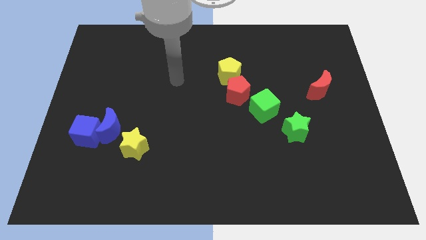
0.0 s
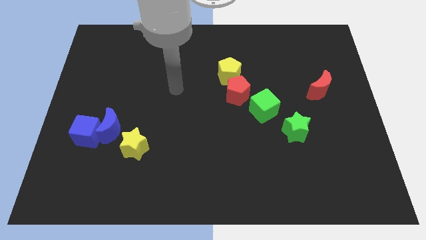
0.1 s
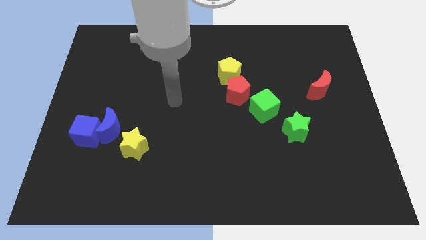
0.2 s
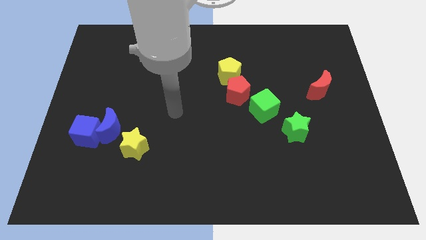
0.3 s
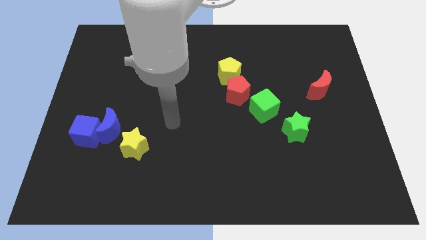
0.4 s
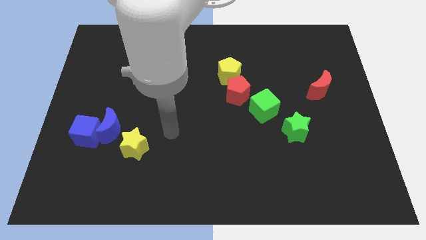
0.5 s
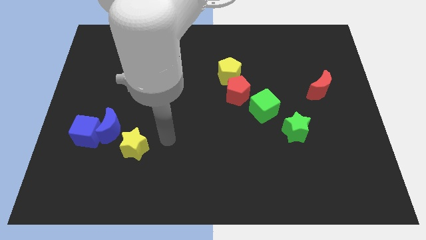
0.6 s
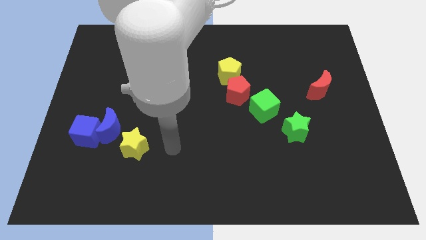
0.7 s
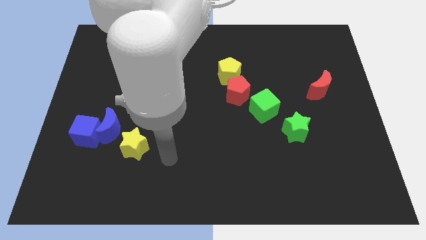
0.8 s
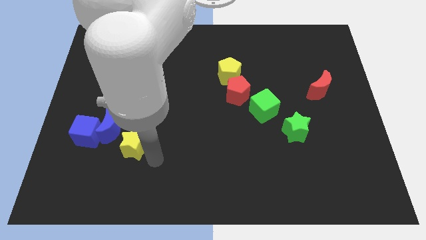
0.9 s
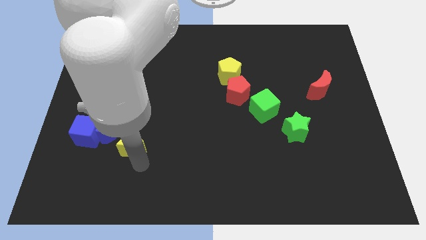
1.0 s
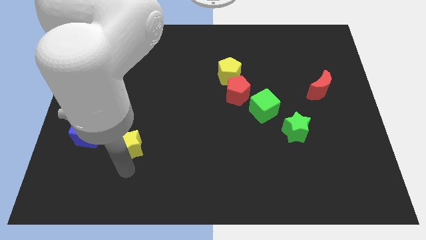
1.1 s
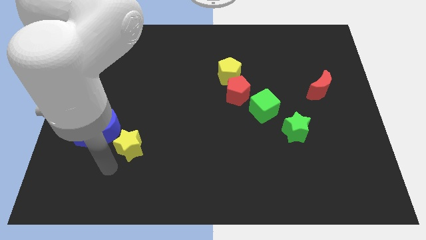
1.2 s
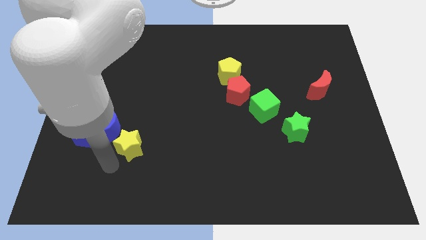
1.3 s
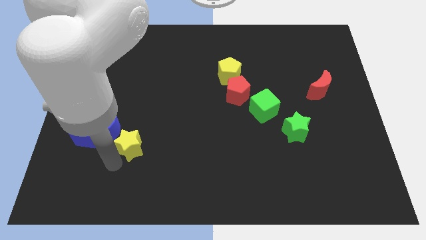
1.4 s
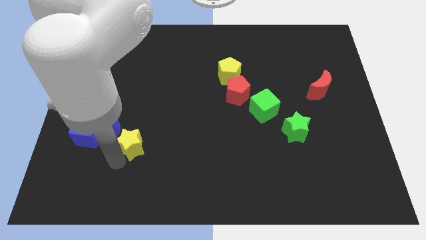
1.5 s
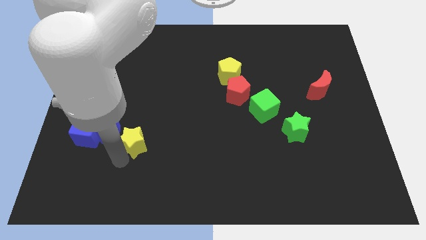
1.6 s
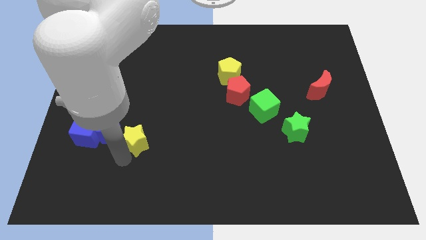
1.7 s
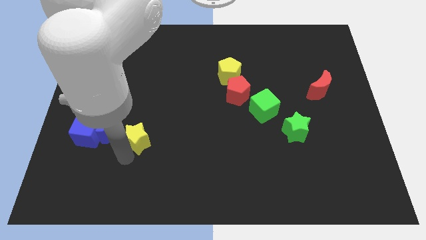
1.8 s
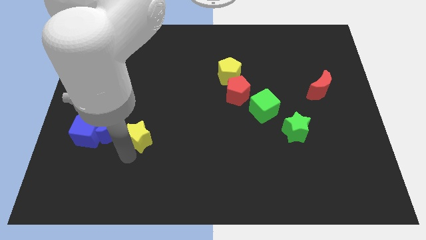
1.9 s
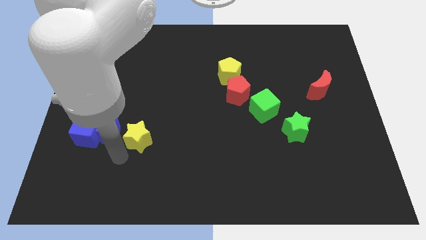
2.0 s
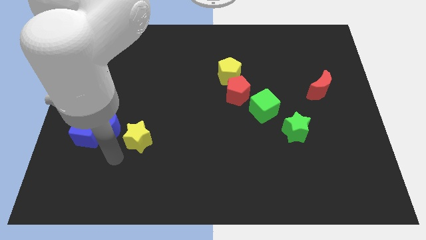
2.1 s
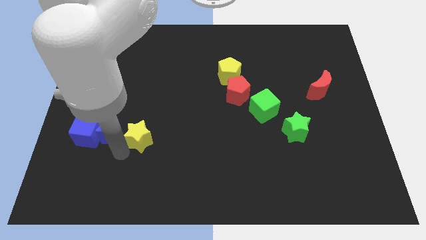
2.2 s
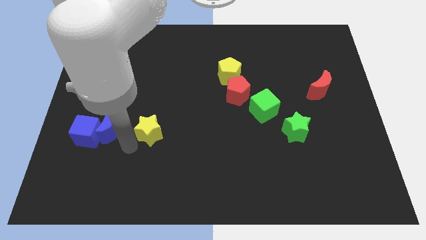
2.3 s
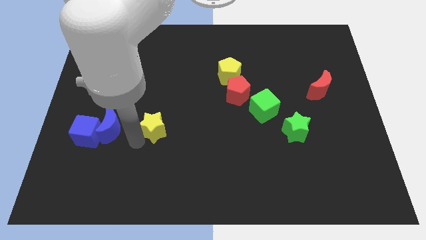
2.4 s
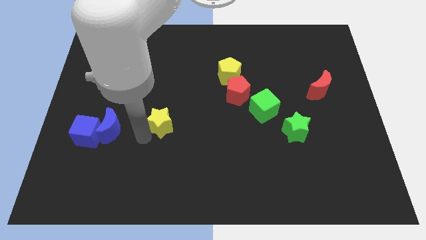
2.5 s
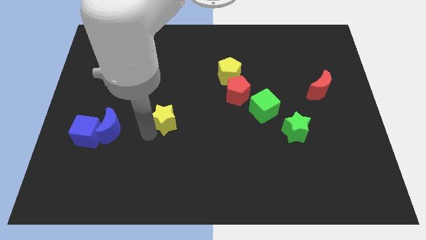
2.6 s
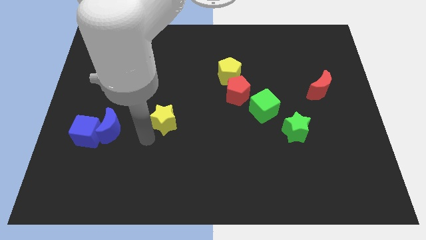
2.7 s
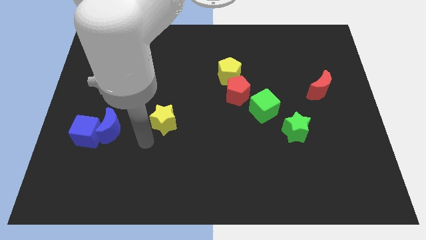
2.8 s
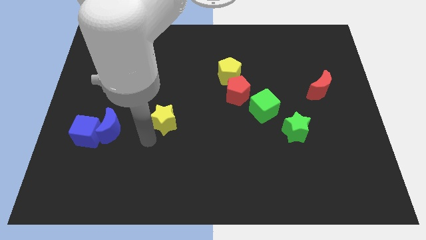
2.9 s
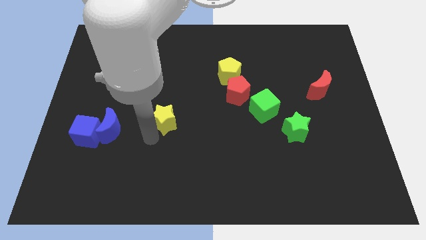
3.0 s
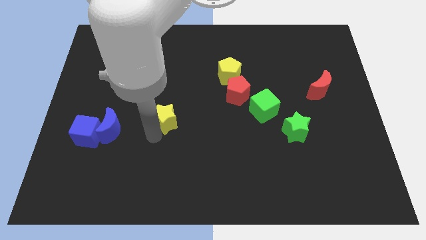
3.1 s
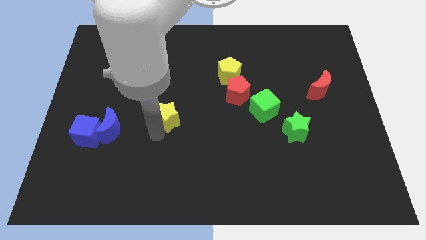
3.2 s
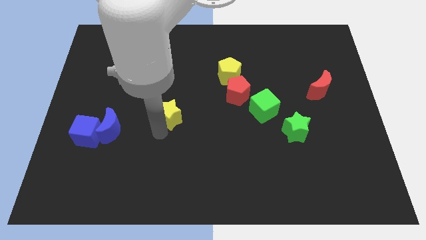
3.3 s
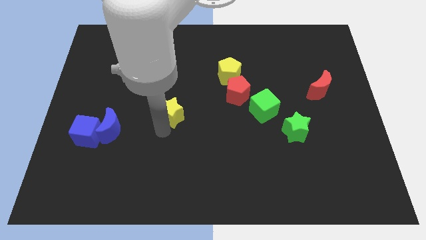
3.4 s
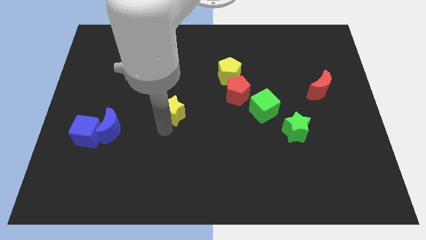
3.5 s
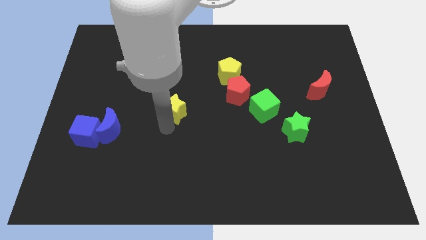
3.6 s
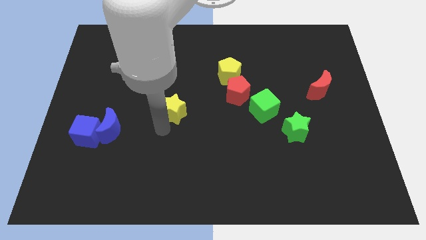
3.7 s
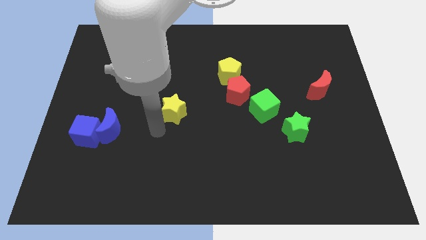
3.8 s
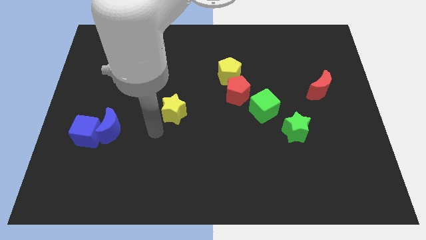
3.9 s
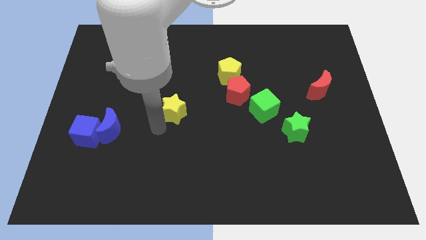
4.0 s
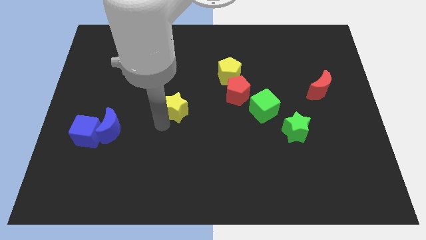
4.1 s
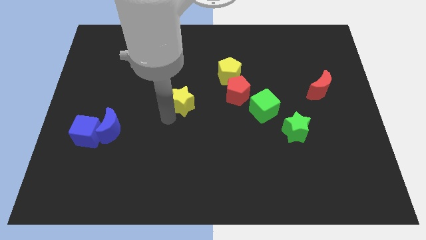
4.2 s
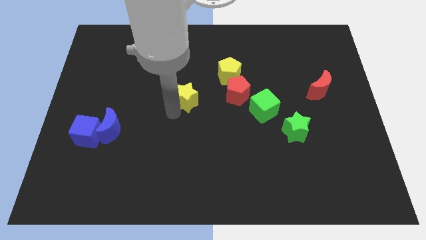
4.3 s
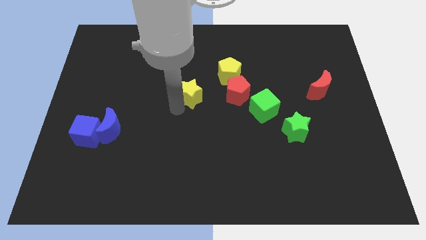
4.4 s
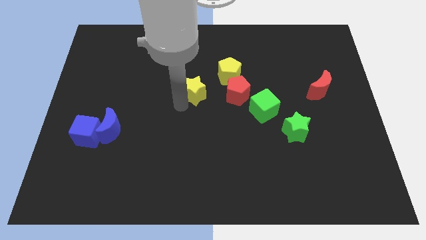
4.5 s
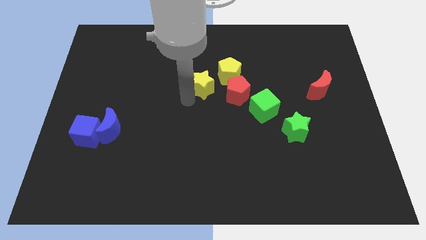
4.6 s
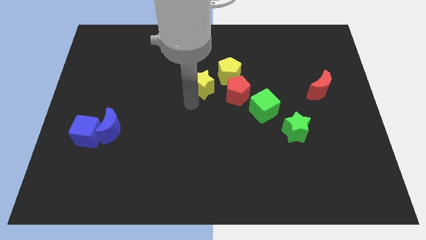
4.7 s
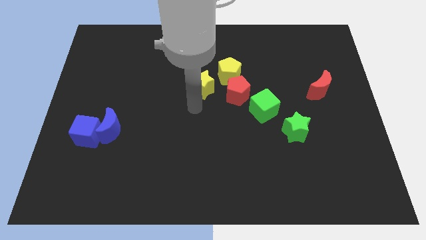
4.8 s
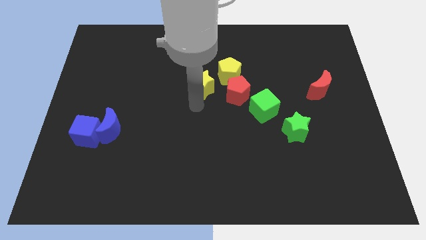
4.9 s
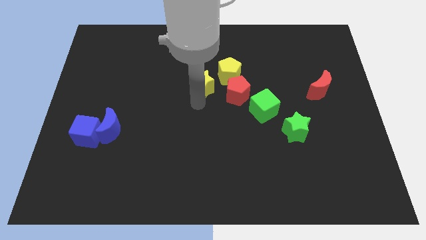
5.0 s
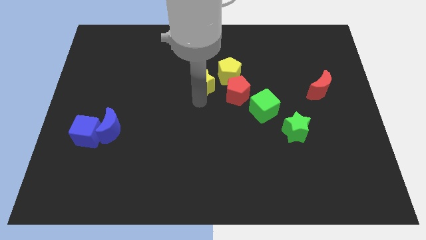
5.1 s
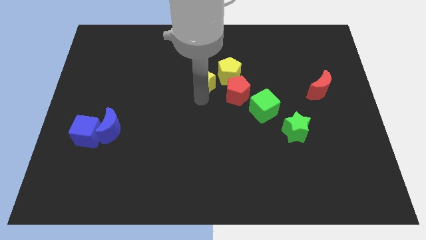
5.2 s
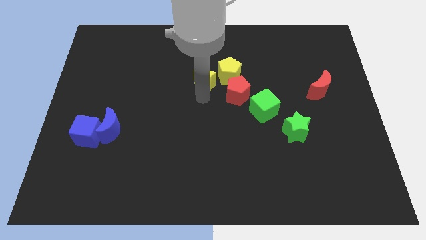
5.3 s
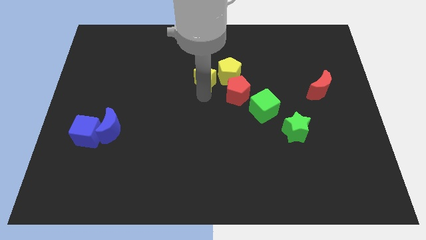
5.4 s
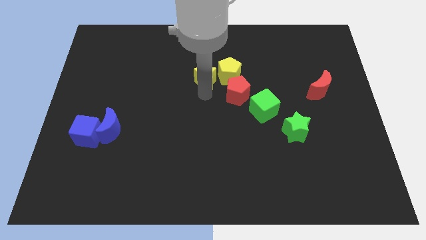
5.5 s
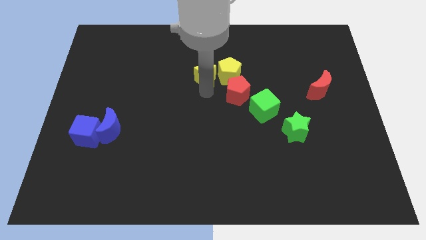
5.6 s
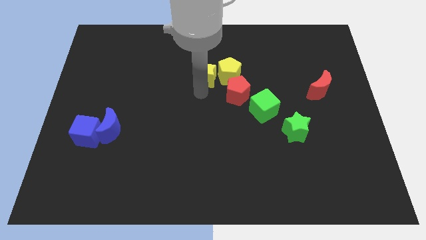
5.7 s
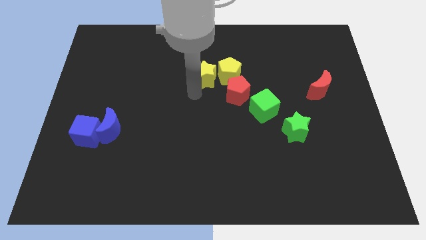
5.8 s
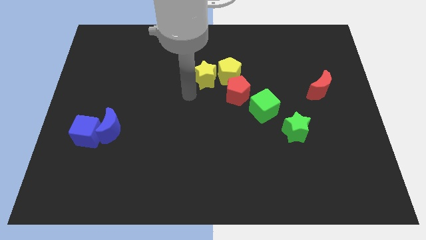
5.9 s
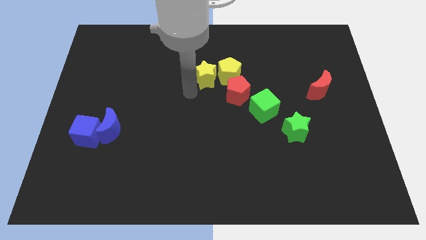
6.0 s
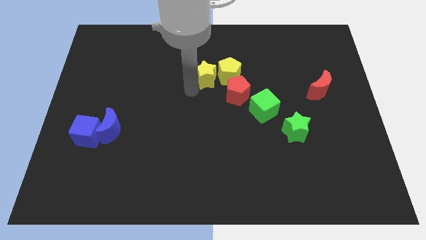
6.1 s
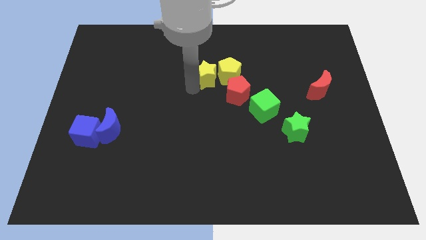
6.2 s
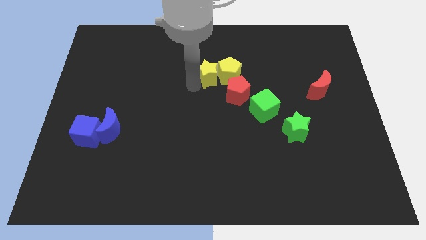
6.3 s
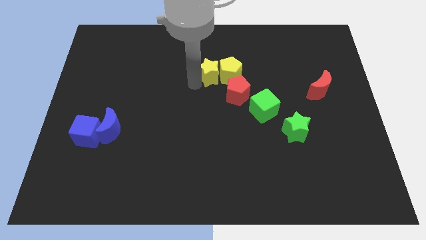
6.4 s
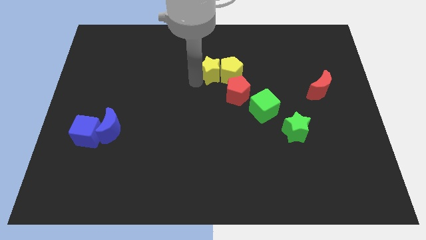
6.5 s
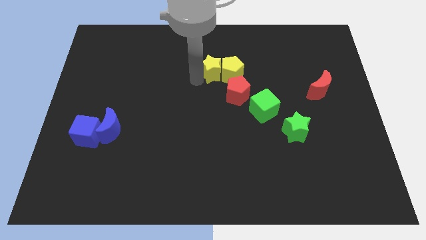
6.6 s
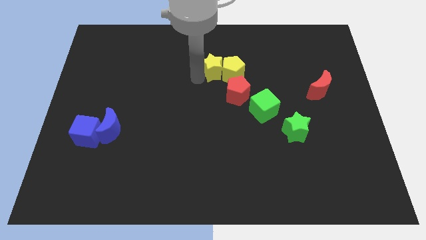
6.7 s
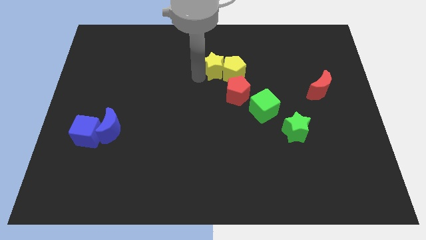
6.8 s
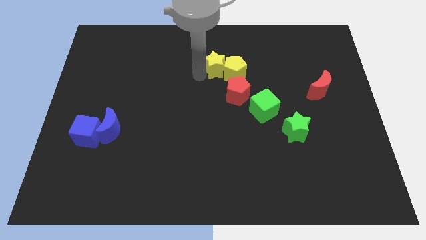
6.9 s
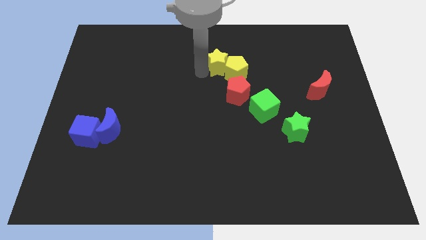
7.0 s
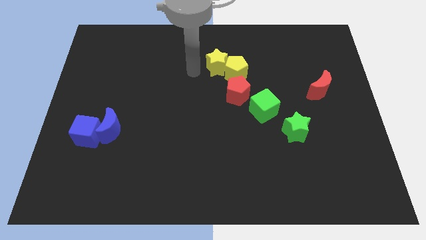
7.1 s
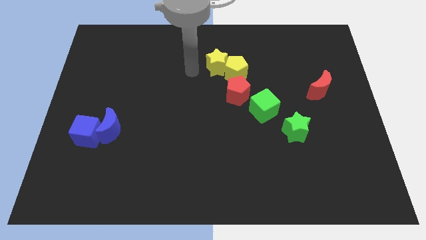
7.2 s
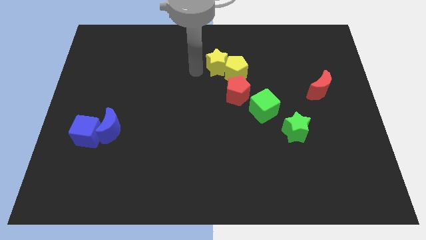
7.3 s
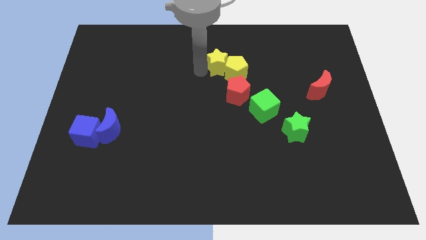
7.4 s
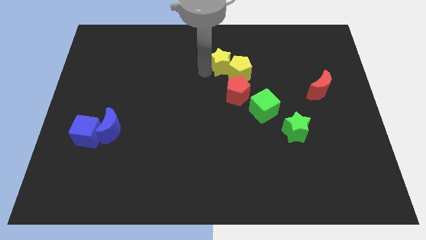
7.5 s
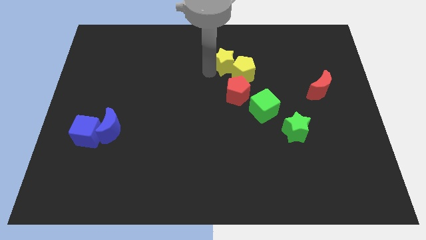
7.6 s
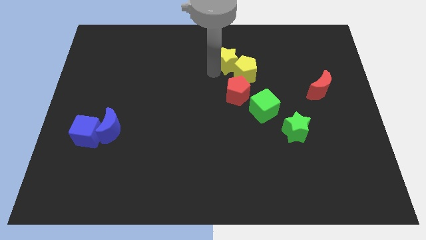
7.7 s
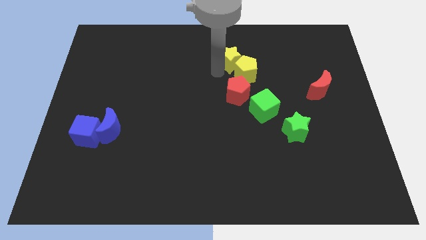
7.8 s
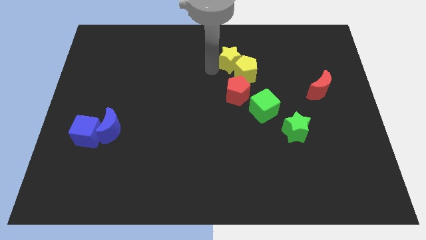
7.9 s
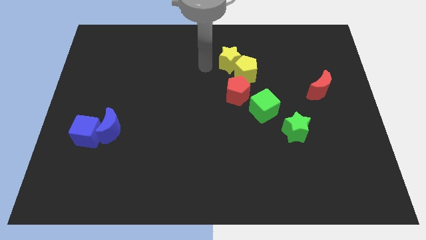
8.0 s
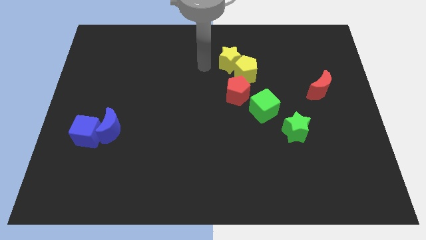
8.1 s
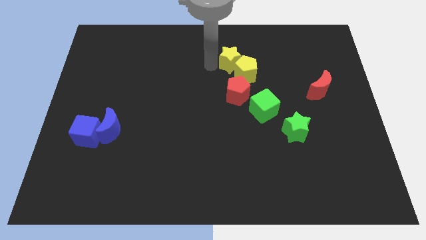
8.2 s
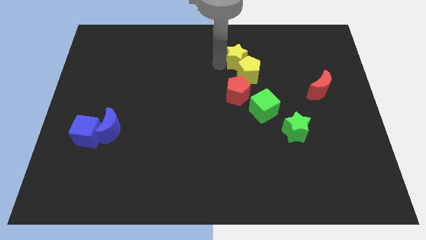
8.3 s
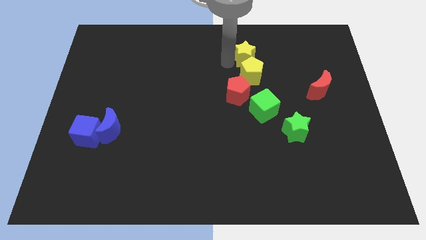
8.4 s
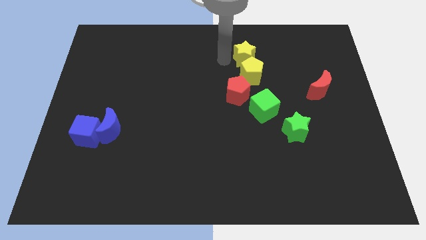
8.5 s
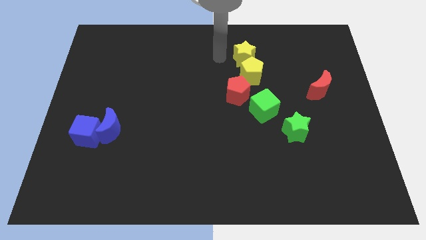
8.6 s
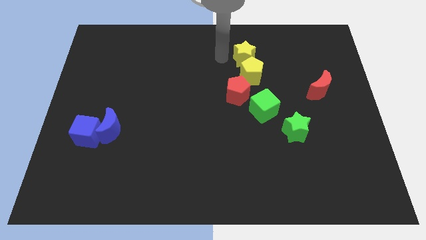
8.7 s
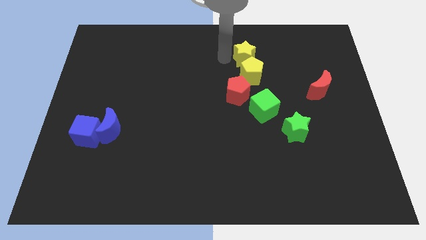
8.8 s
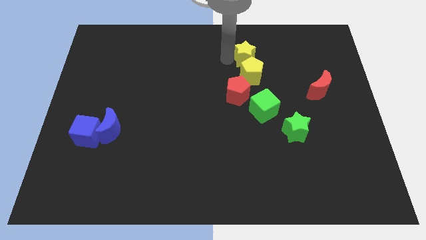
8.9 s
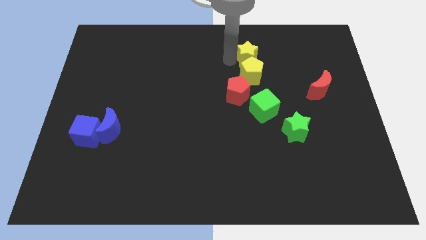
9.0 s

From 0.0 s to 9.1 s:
slide the yellow star to the top right side of the yellow pentagon
